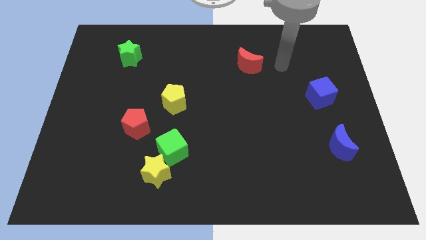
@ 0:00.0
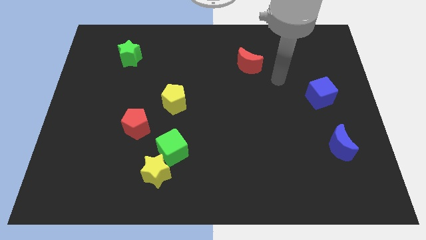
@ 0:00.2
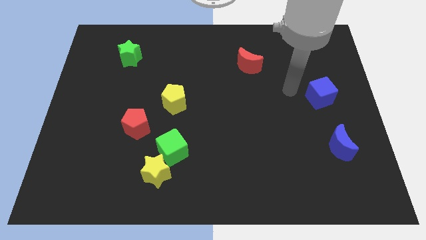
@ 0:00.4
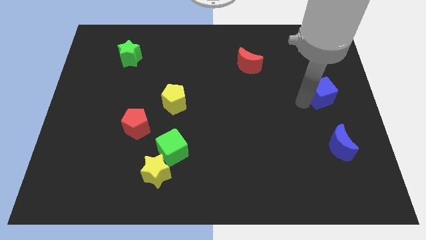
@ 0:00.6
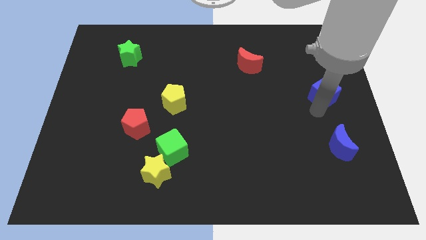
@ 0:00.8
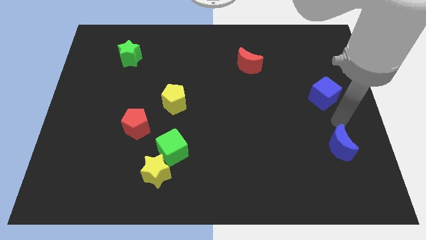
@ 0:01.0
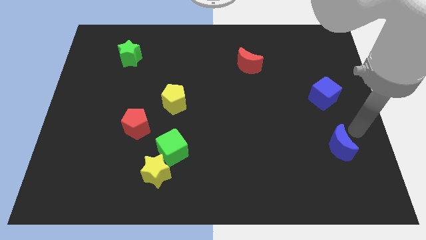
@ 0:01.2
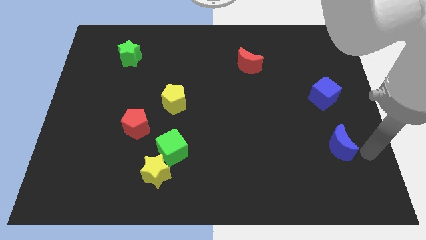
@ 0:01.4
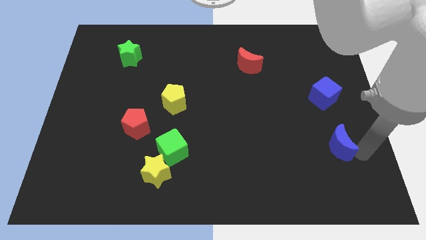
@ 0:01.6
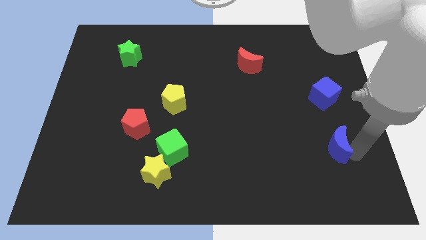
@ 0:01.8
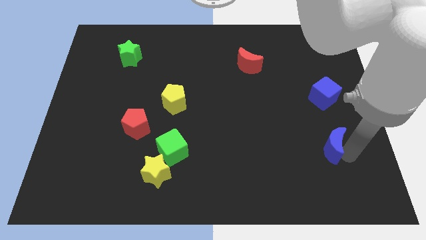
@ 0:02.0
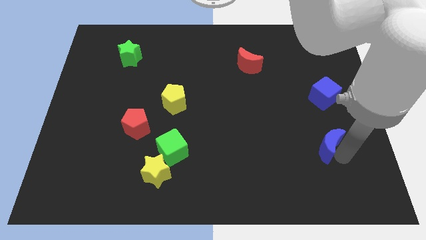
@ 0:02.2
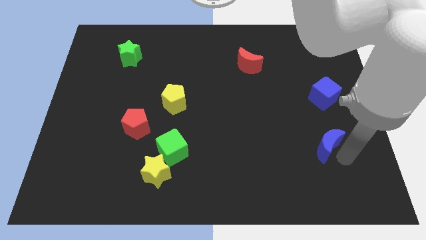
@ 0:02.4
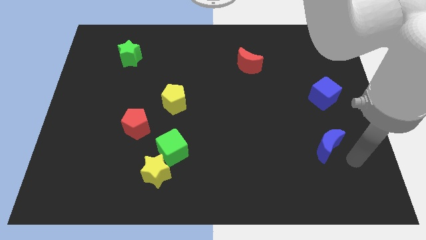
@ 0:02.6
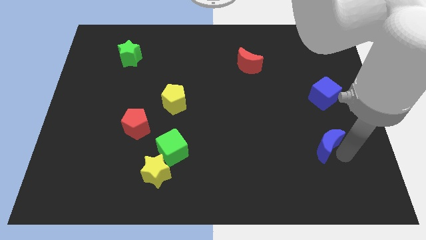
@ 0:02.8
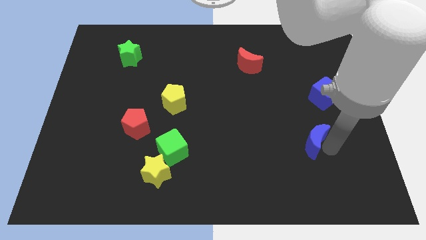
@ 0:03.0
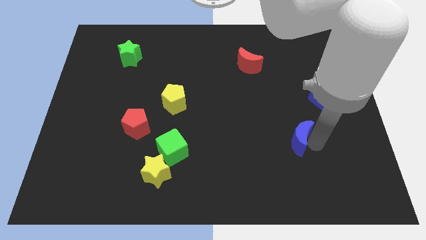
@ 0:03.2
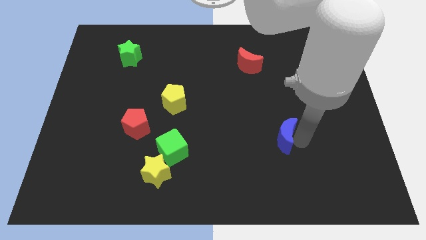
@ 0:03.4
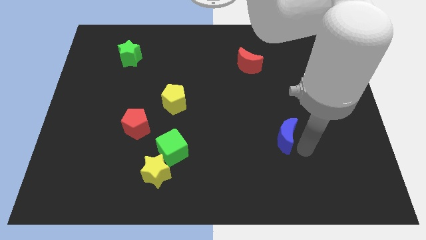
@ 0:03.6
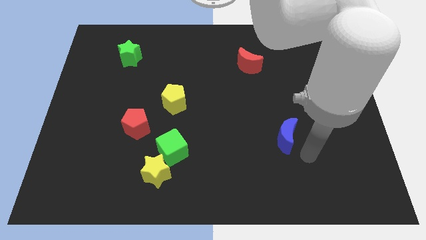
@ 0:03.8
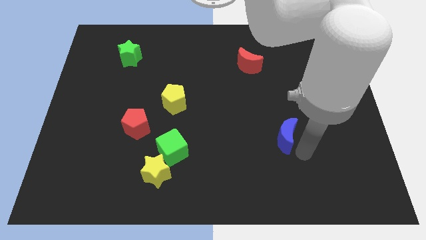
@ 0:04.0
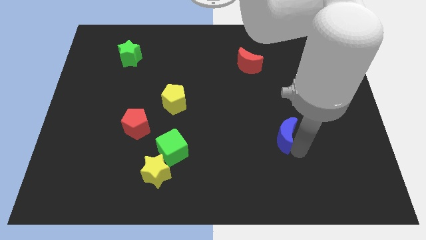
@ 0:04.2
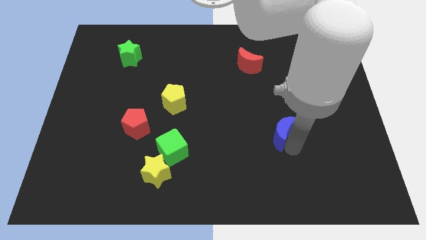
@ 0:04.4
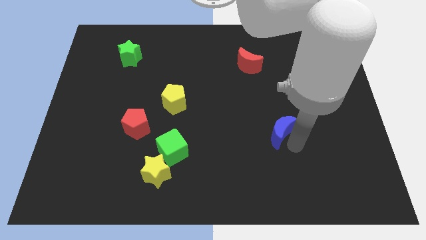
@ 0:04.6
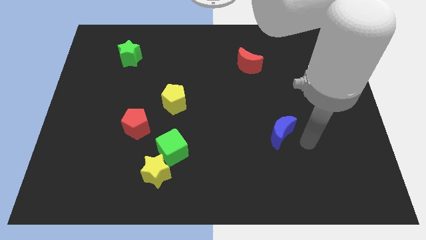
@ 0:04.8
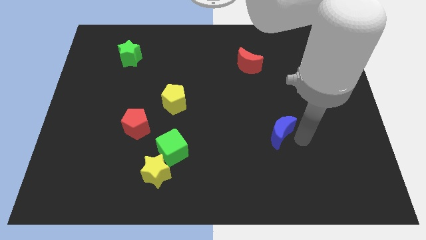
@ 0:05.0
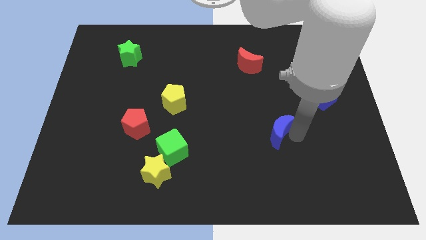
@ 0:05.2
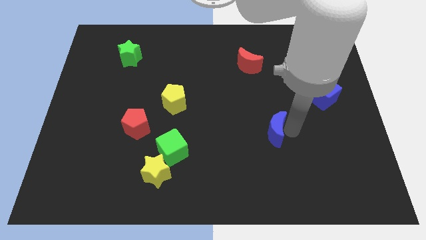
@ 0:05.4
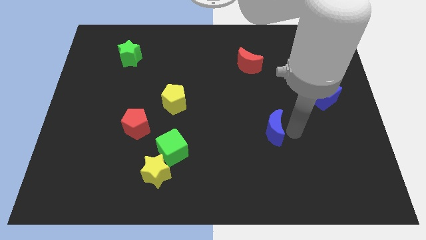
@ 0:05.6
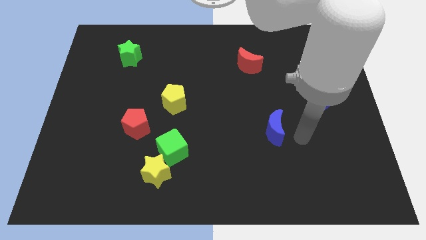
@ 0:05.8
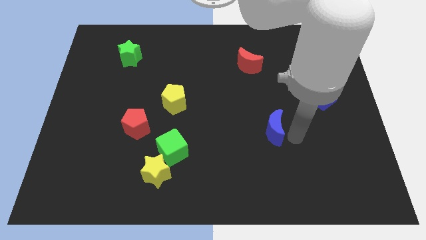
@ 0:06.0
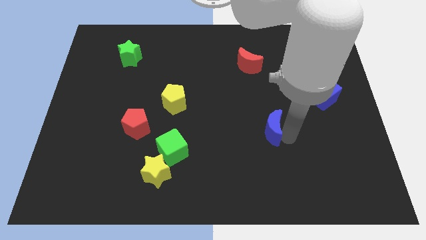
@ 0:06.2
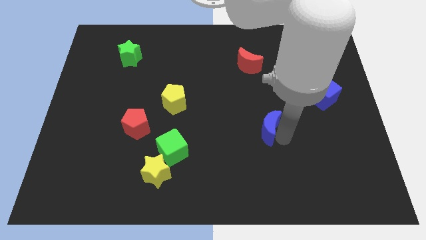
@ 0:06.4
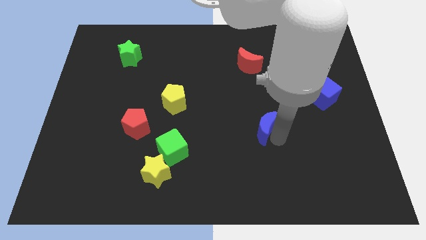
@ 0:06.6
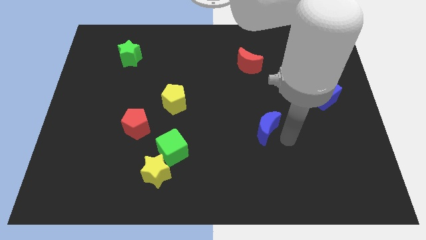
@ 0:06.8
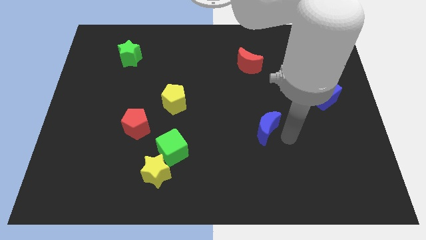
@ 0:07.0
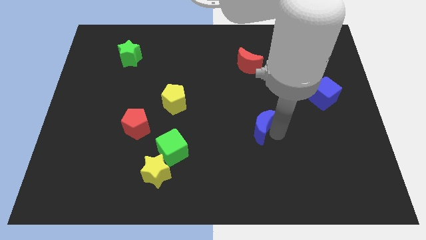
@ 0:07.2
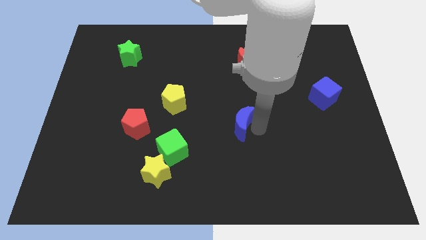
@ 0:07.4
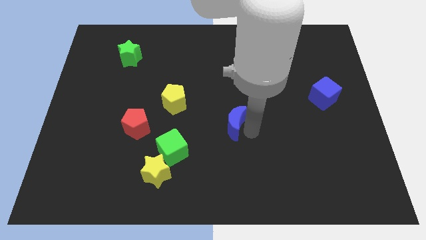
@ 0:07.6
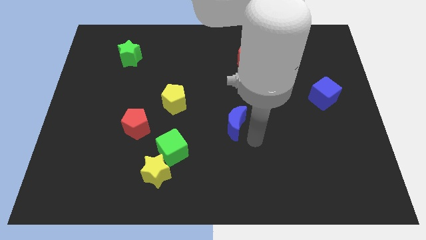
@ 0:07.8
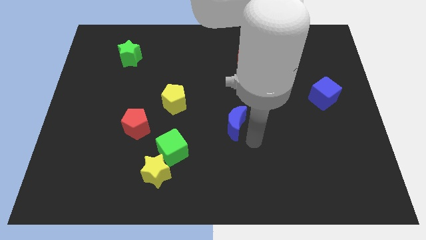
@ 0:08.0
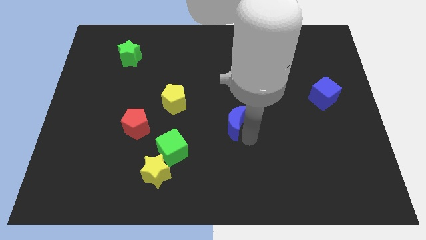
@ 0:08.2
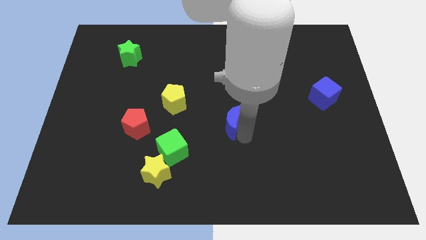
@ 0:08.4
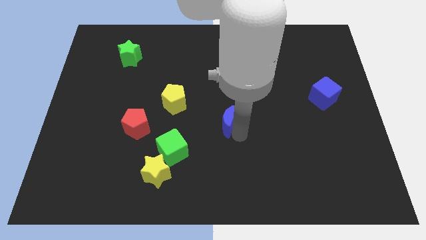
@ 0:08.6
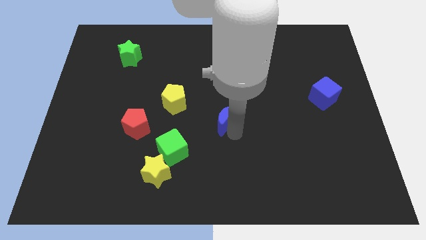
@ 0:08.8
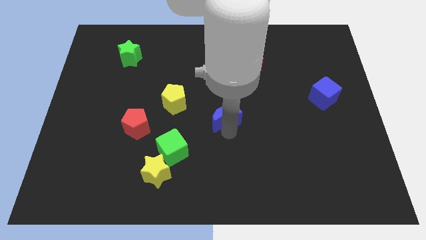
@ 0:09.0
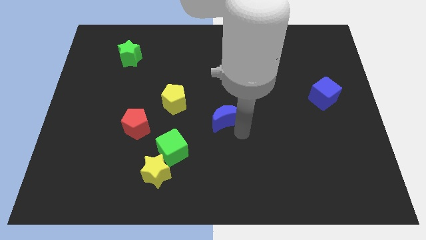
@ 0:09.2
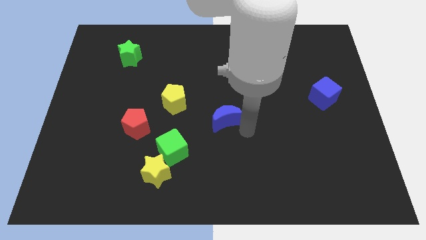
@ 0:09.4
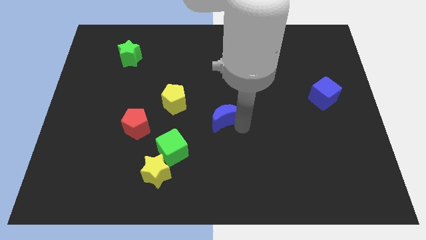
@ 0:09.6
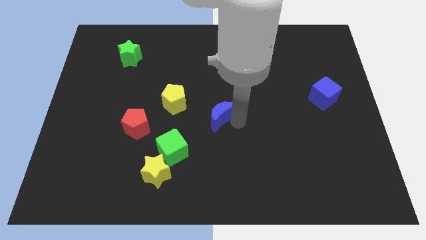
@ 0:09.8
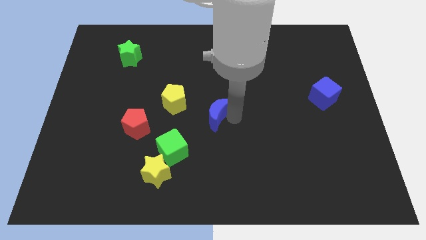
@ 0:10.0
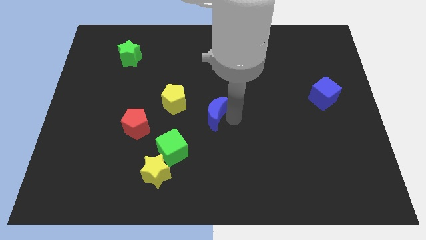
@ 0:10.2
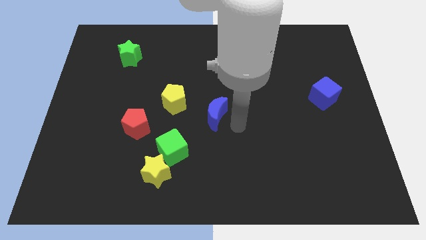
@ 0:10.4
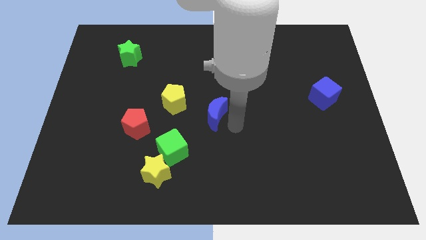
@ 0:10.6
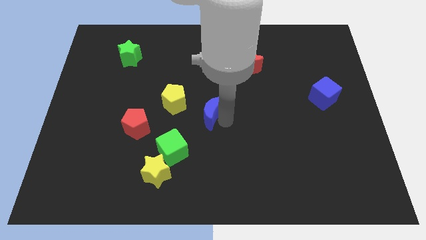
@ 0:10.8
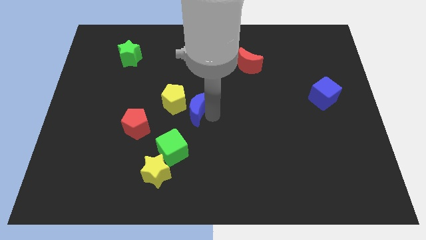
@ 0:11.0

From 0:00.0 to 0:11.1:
move the blue moon next to the yellow pentagon

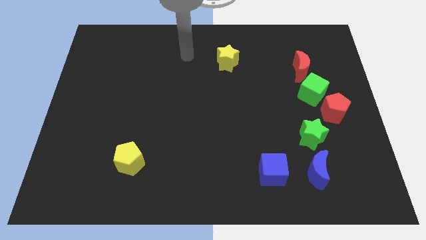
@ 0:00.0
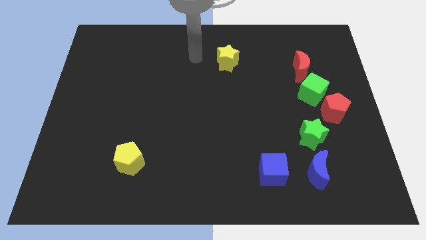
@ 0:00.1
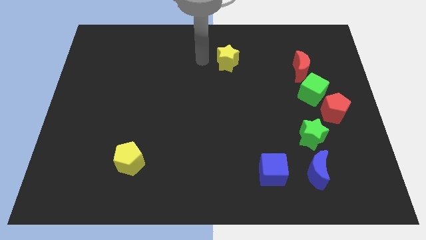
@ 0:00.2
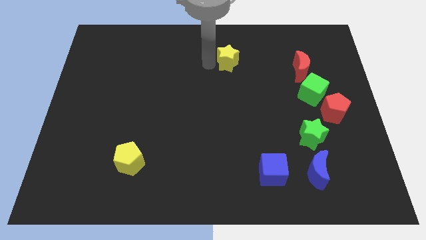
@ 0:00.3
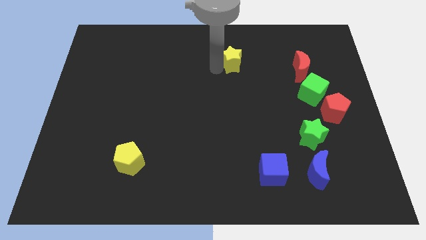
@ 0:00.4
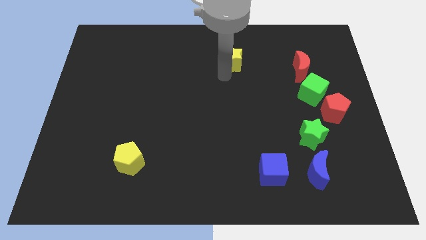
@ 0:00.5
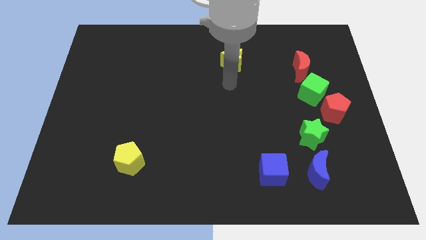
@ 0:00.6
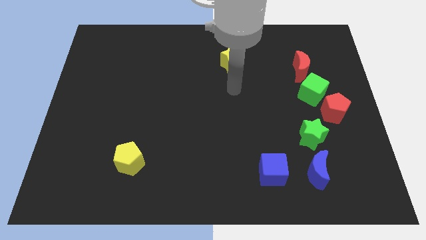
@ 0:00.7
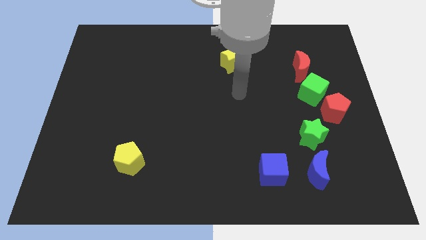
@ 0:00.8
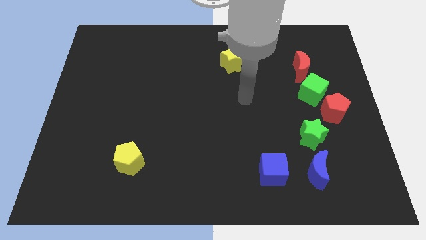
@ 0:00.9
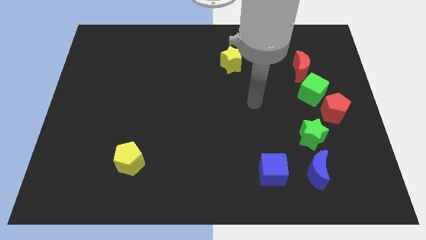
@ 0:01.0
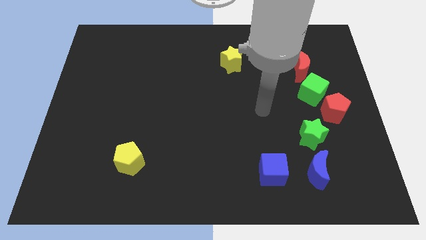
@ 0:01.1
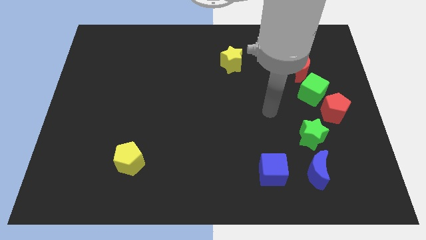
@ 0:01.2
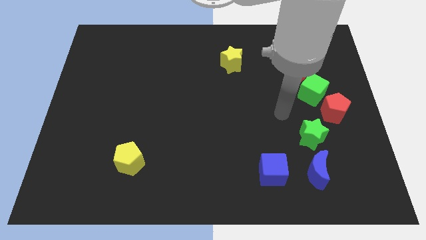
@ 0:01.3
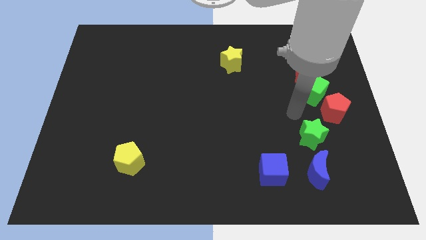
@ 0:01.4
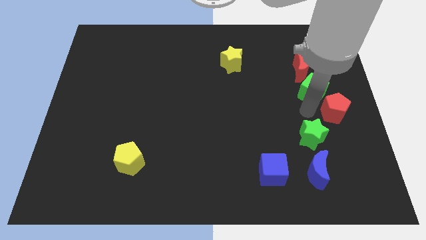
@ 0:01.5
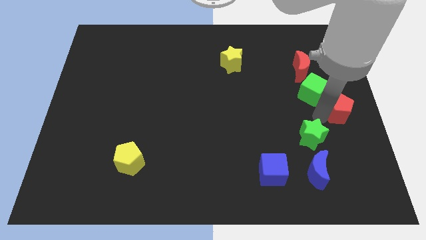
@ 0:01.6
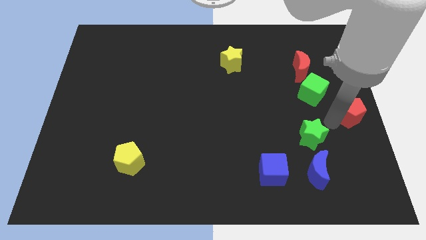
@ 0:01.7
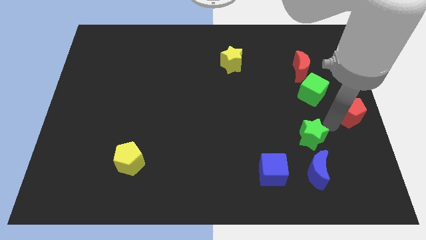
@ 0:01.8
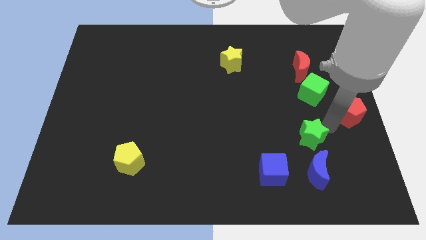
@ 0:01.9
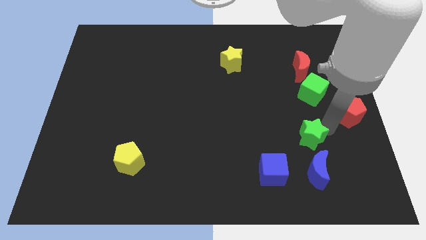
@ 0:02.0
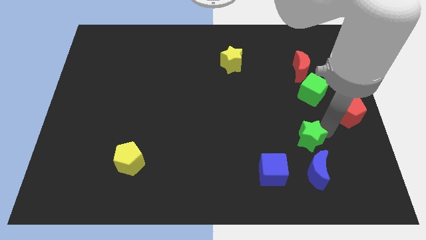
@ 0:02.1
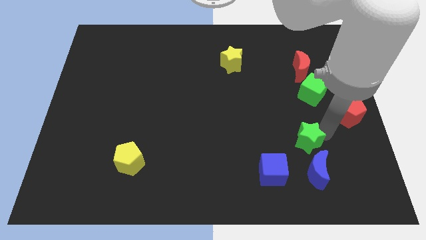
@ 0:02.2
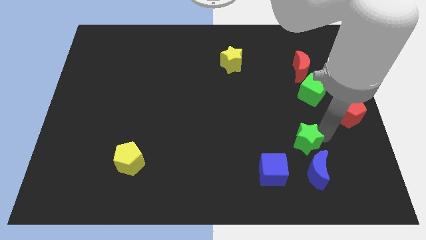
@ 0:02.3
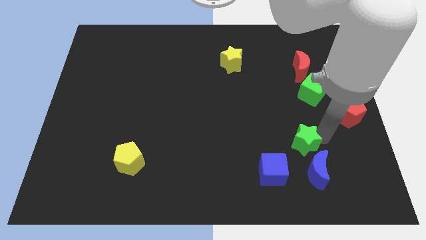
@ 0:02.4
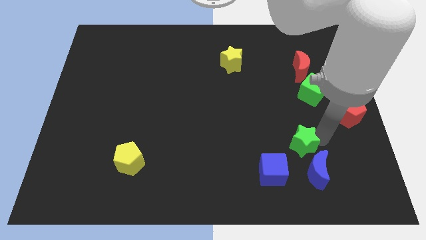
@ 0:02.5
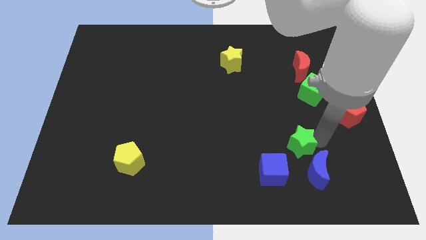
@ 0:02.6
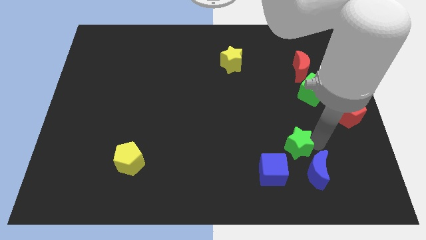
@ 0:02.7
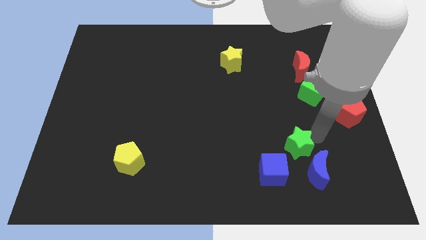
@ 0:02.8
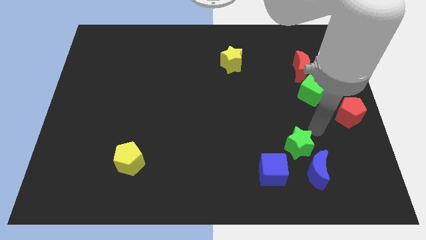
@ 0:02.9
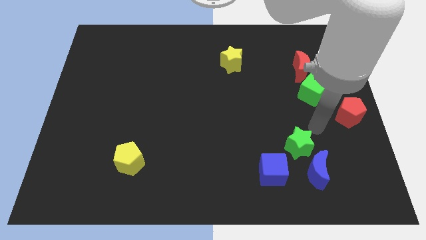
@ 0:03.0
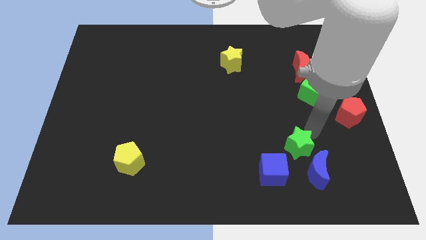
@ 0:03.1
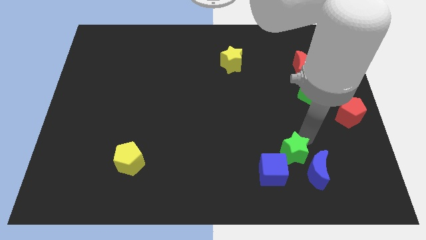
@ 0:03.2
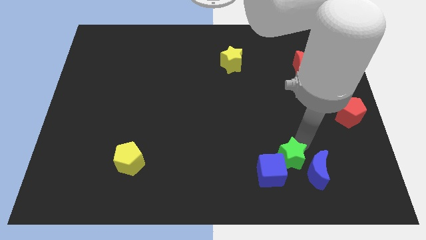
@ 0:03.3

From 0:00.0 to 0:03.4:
move the green star next to the blue cube
